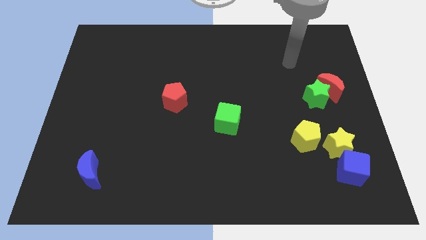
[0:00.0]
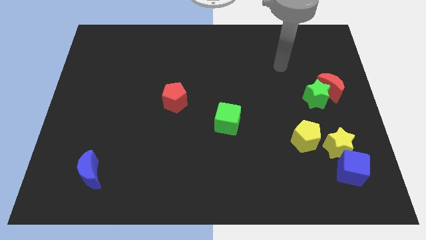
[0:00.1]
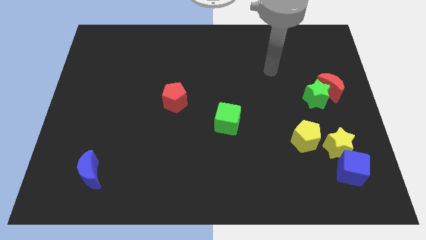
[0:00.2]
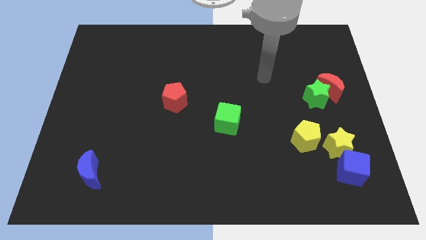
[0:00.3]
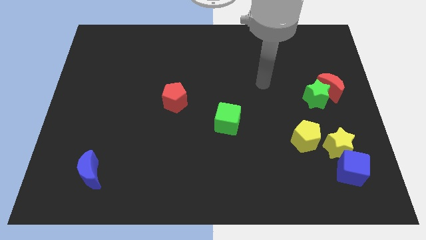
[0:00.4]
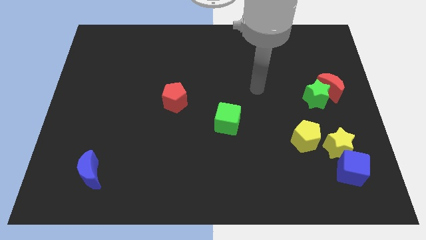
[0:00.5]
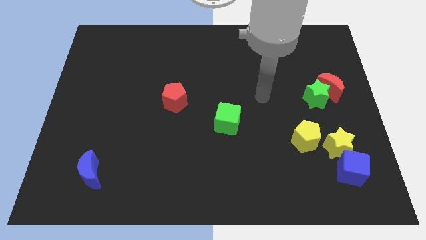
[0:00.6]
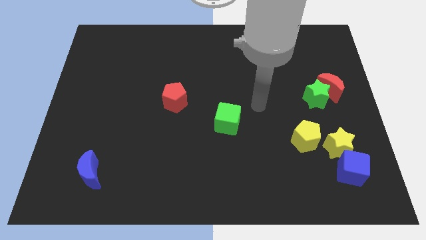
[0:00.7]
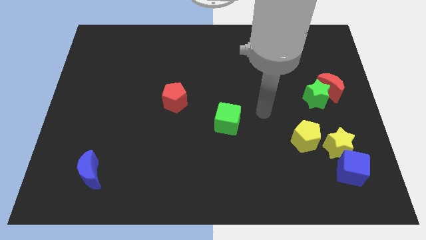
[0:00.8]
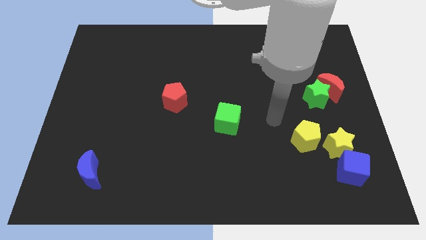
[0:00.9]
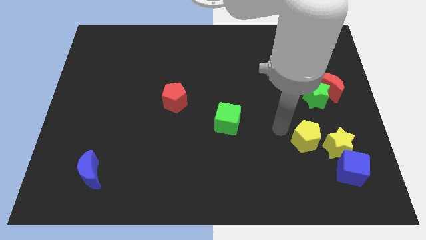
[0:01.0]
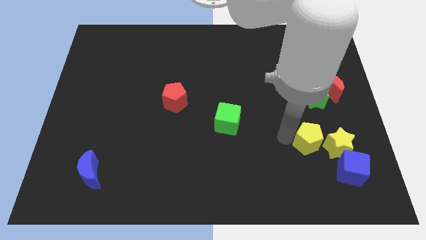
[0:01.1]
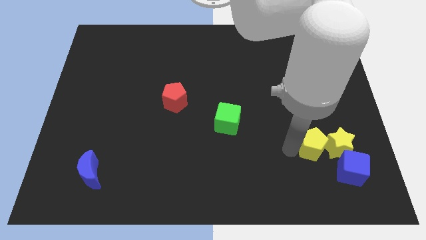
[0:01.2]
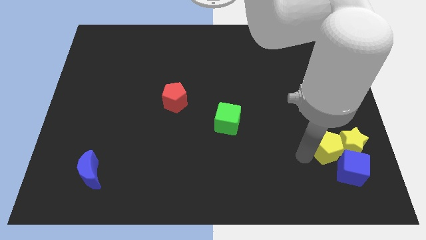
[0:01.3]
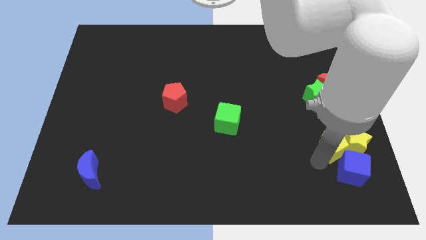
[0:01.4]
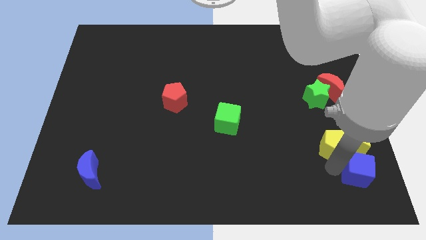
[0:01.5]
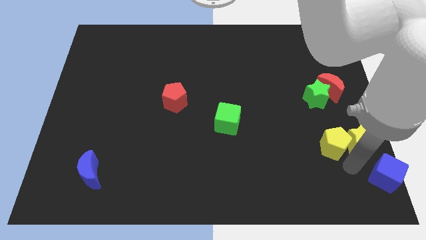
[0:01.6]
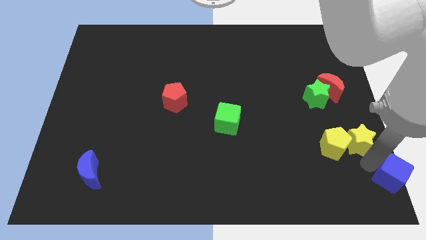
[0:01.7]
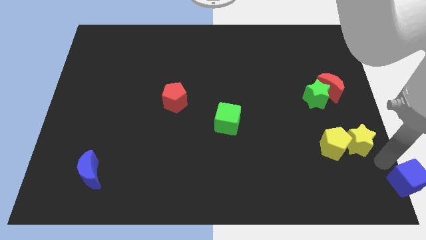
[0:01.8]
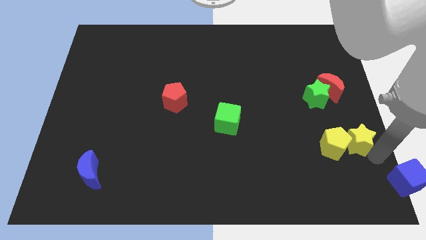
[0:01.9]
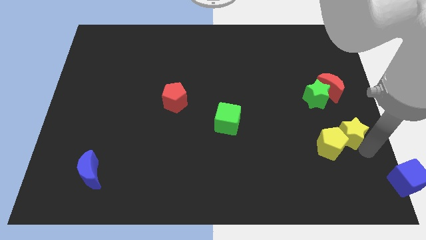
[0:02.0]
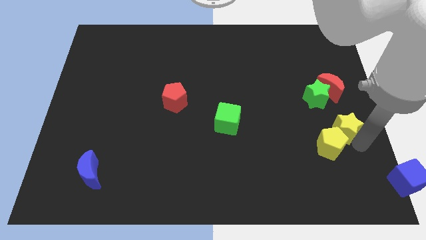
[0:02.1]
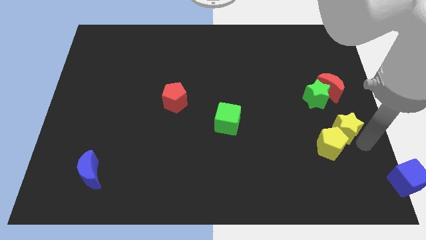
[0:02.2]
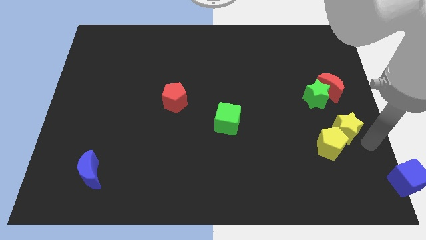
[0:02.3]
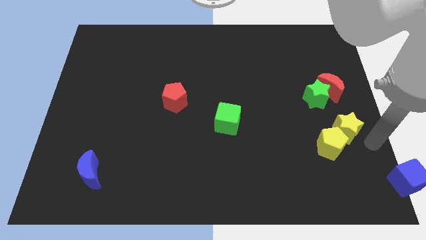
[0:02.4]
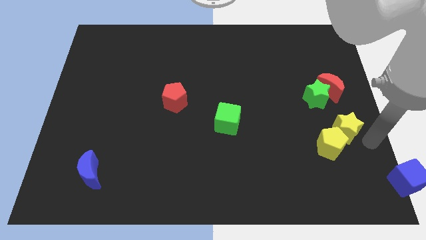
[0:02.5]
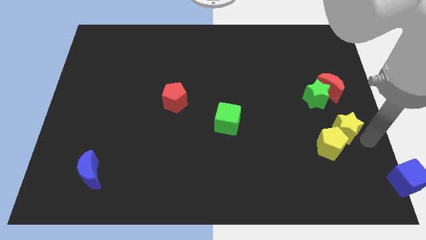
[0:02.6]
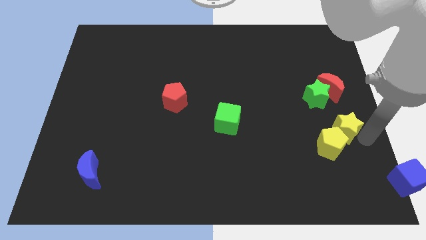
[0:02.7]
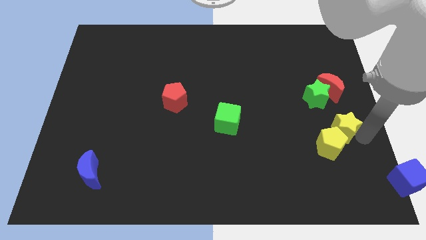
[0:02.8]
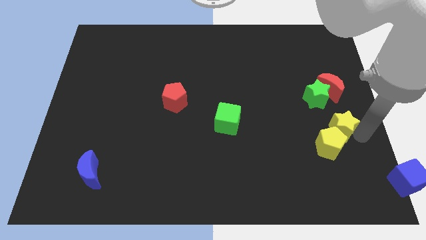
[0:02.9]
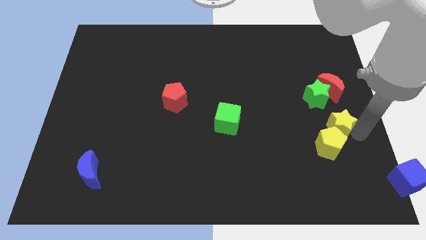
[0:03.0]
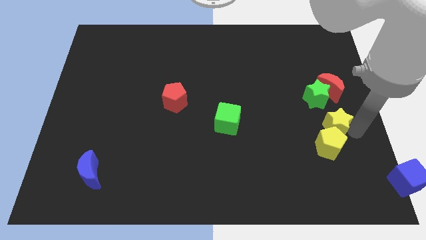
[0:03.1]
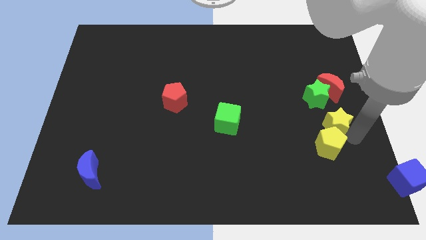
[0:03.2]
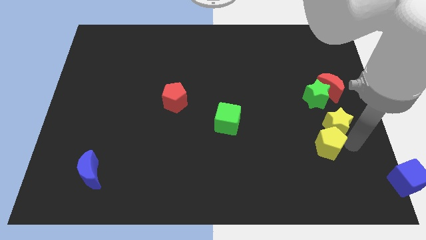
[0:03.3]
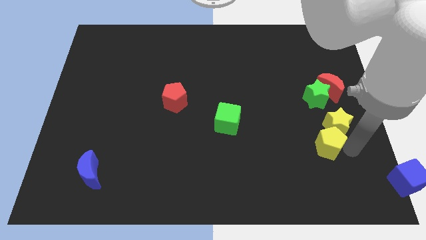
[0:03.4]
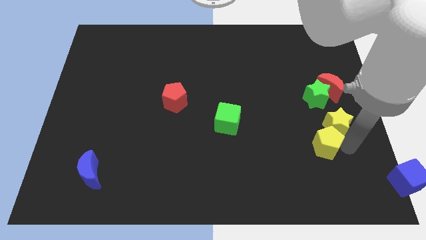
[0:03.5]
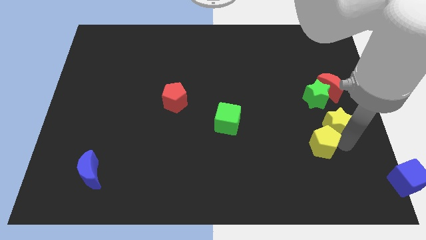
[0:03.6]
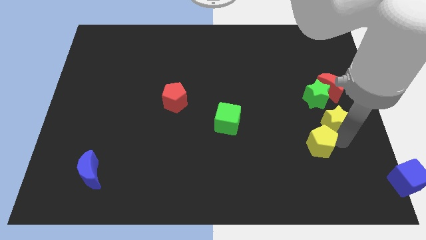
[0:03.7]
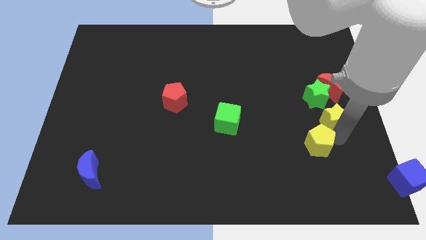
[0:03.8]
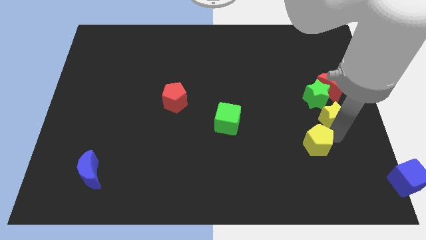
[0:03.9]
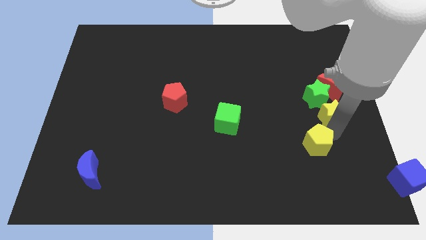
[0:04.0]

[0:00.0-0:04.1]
move the yellow star towards the green star

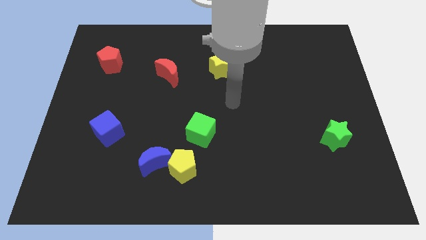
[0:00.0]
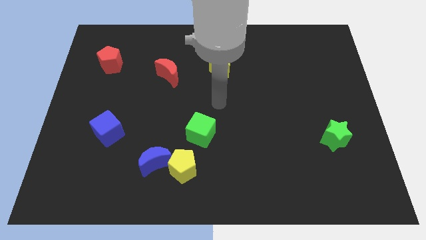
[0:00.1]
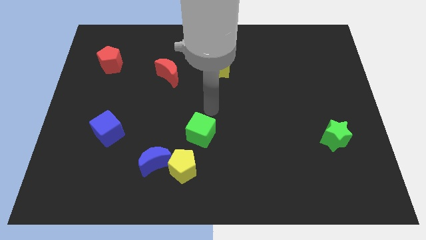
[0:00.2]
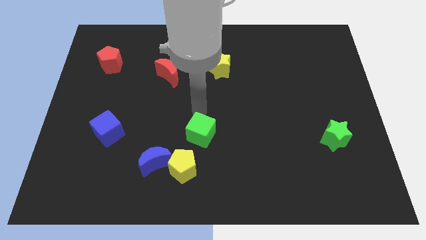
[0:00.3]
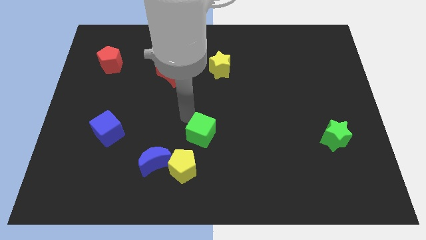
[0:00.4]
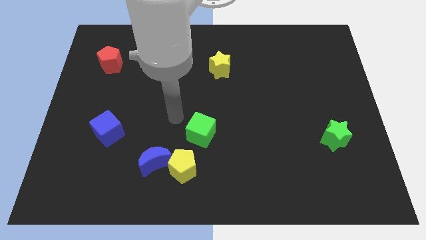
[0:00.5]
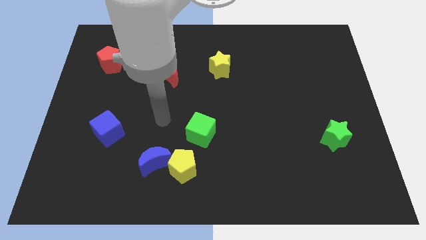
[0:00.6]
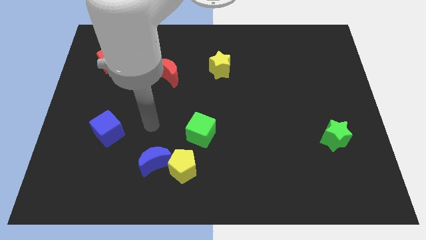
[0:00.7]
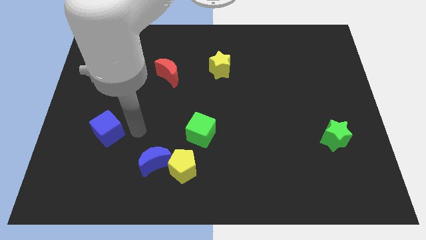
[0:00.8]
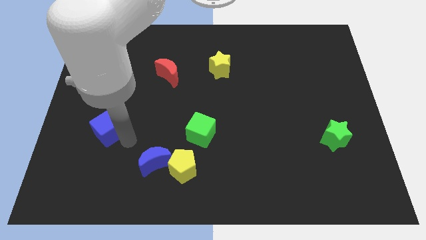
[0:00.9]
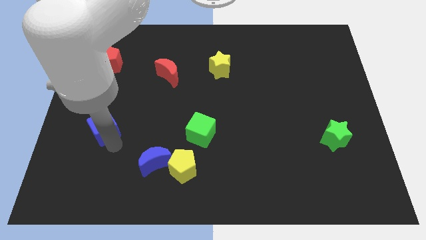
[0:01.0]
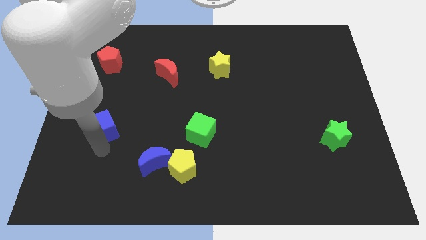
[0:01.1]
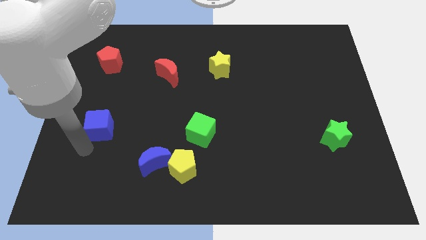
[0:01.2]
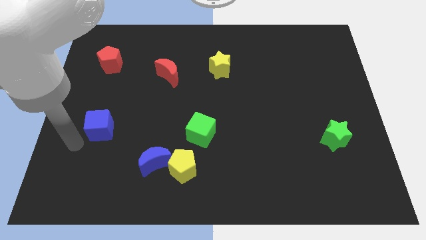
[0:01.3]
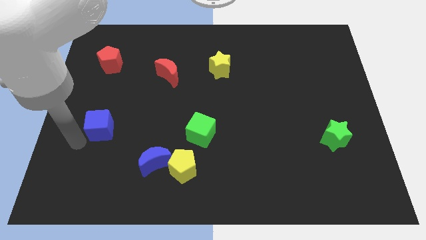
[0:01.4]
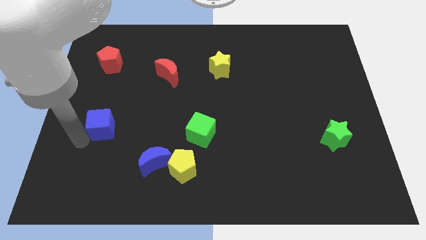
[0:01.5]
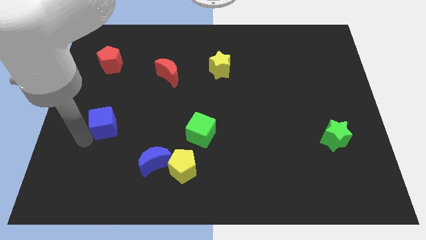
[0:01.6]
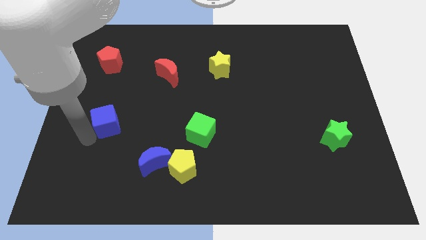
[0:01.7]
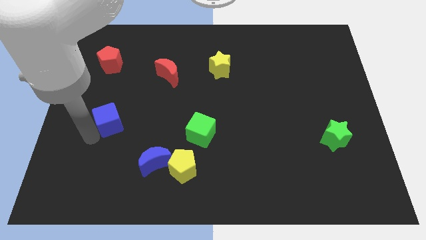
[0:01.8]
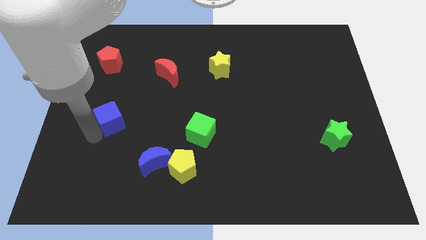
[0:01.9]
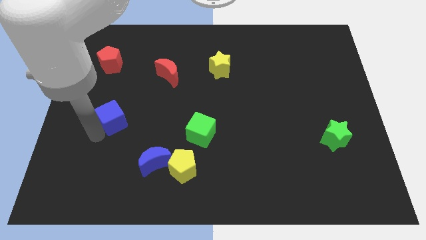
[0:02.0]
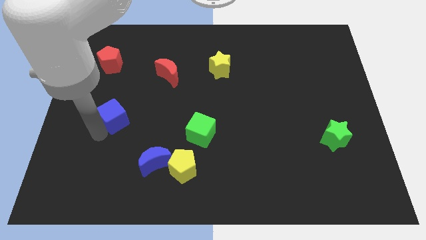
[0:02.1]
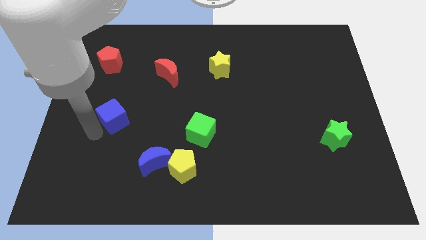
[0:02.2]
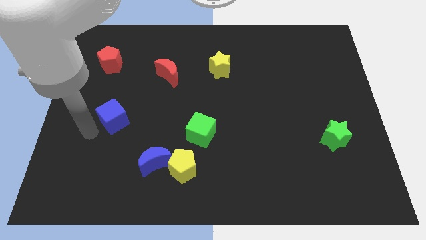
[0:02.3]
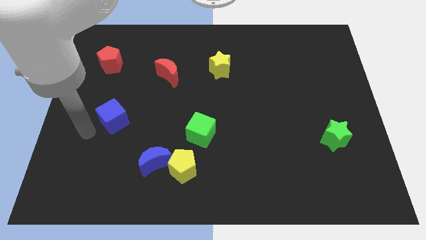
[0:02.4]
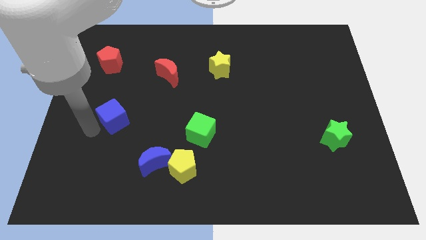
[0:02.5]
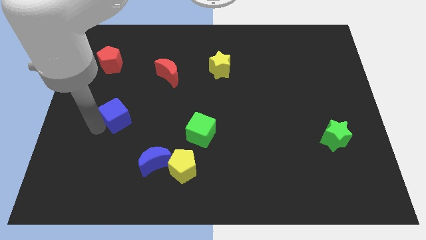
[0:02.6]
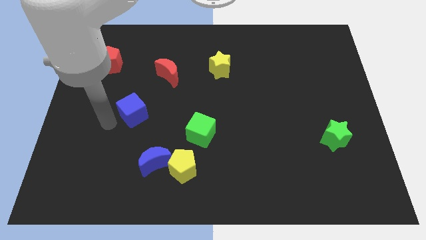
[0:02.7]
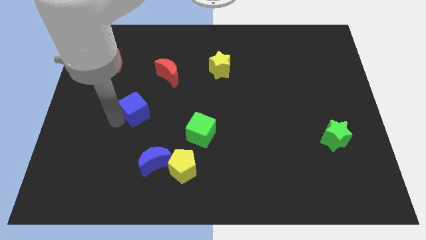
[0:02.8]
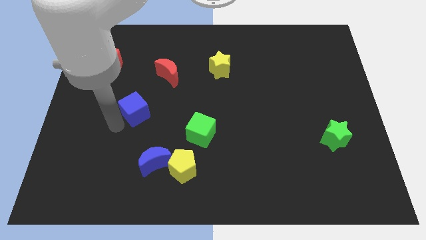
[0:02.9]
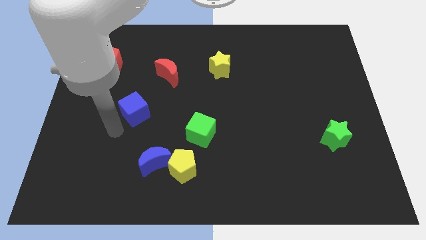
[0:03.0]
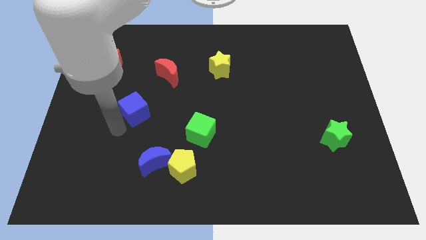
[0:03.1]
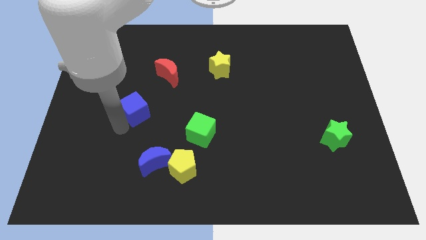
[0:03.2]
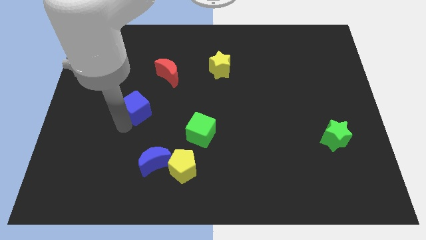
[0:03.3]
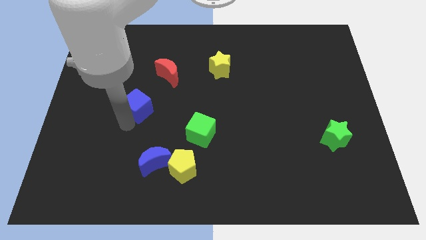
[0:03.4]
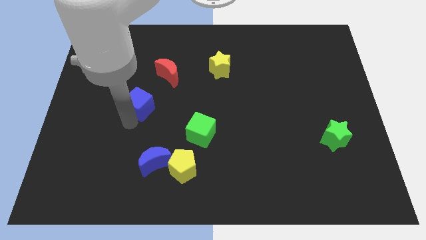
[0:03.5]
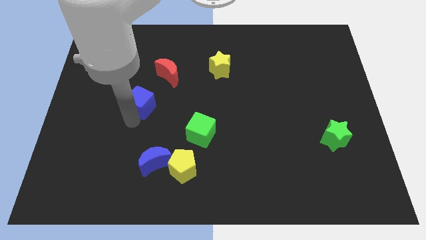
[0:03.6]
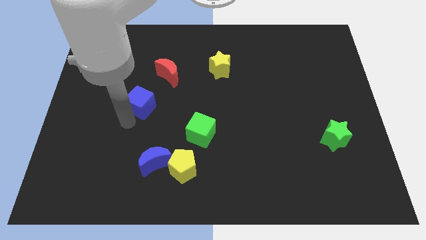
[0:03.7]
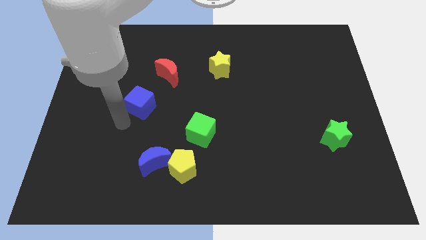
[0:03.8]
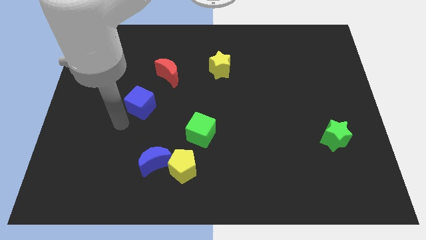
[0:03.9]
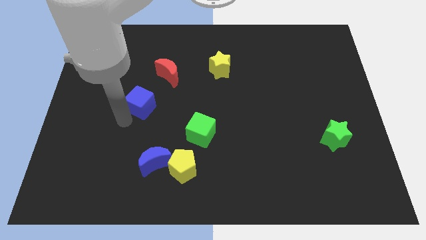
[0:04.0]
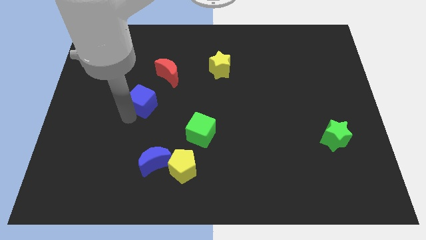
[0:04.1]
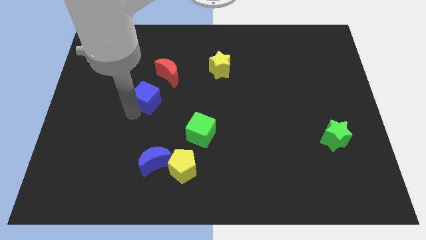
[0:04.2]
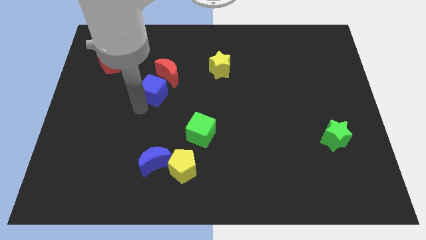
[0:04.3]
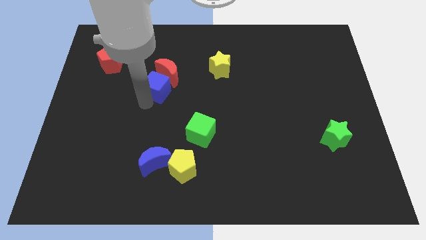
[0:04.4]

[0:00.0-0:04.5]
put the blue cube close to the red moon
